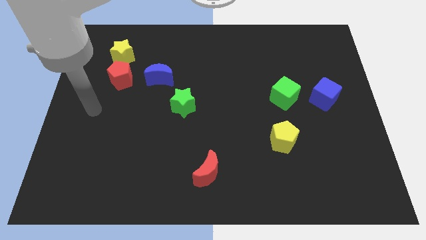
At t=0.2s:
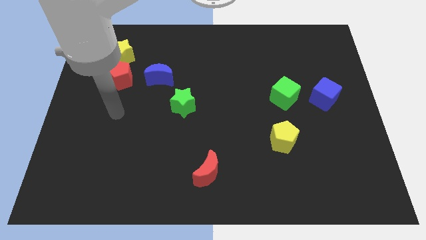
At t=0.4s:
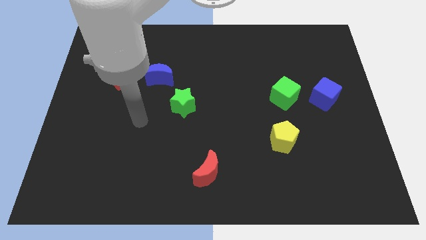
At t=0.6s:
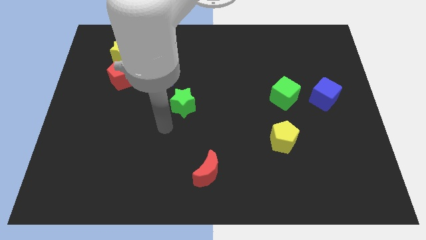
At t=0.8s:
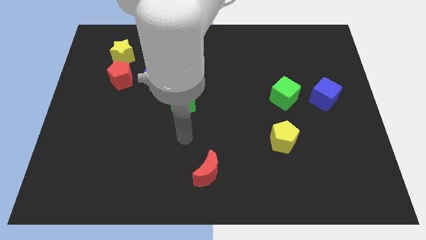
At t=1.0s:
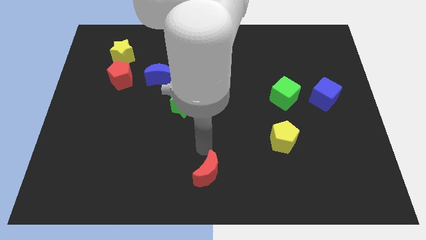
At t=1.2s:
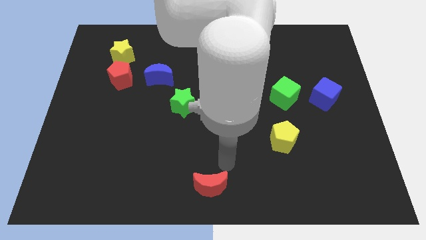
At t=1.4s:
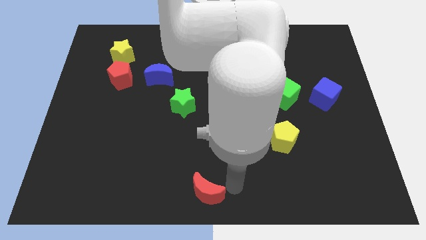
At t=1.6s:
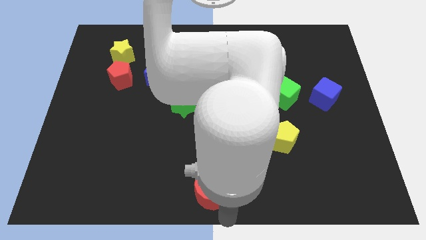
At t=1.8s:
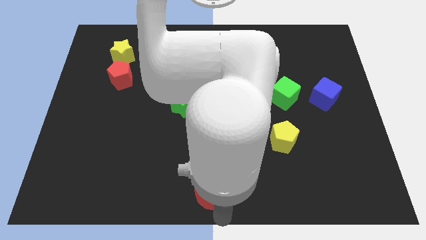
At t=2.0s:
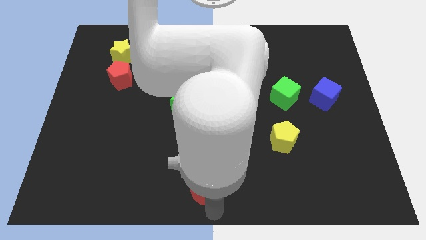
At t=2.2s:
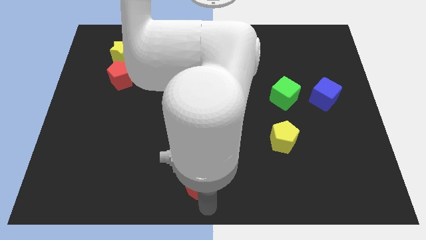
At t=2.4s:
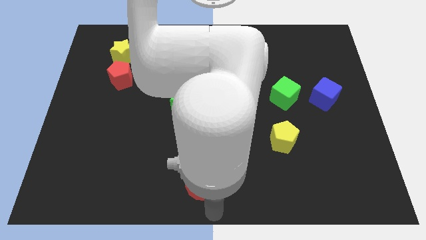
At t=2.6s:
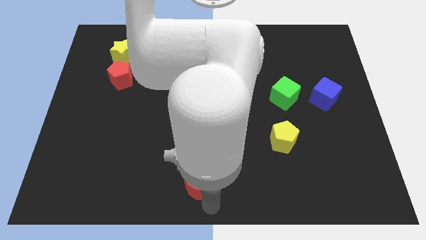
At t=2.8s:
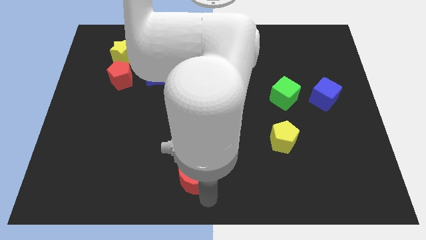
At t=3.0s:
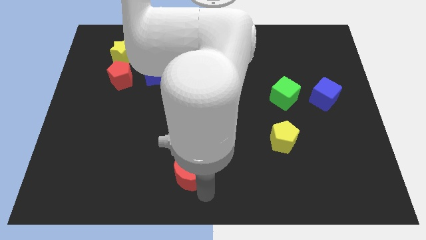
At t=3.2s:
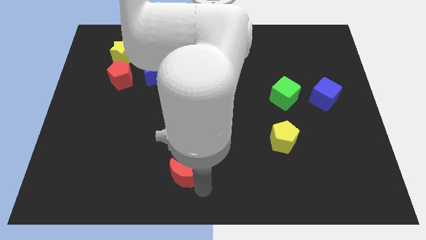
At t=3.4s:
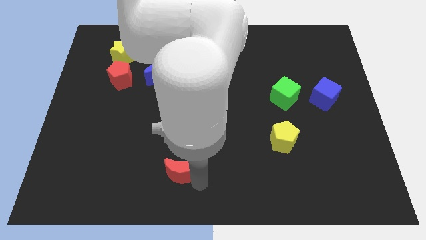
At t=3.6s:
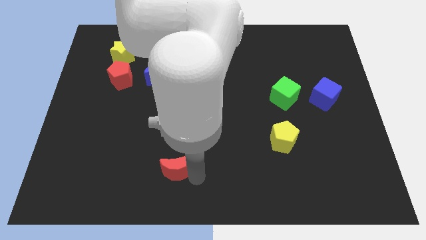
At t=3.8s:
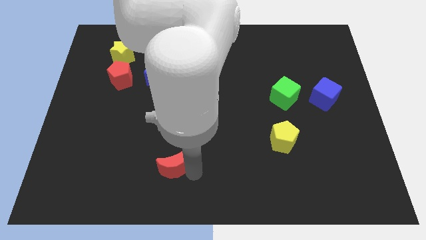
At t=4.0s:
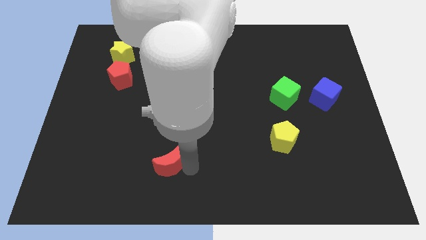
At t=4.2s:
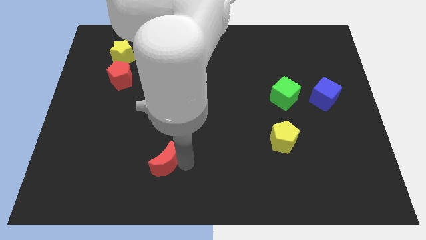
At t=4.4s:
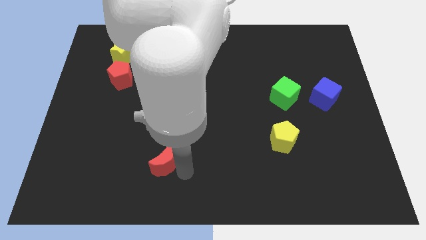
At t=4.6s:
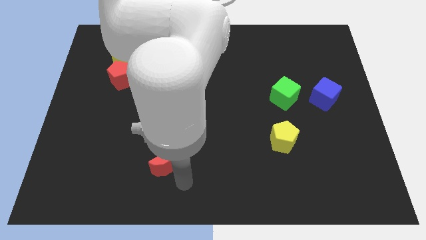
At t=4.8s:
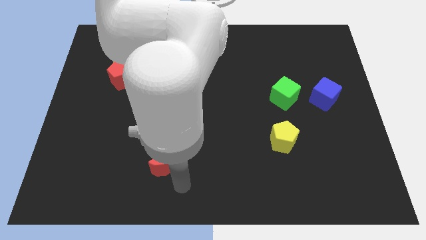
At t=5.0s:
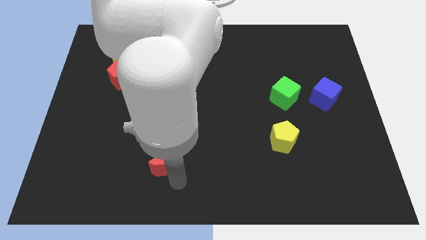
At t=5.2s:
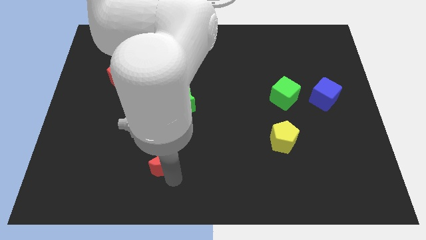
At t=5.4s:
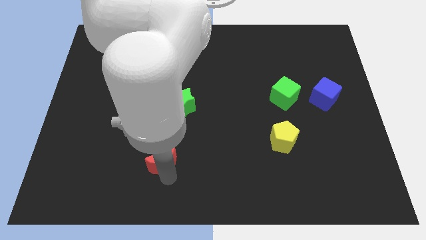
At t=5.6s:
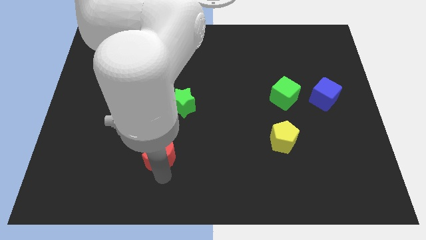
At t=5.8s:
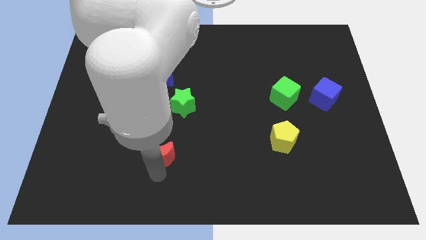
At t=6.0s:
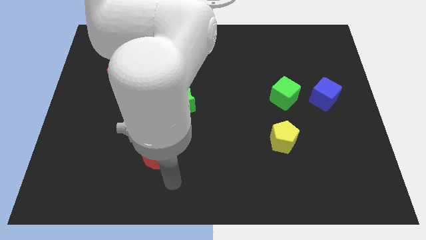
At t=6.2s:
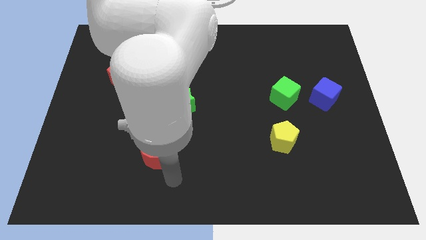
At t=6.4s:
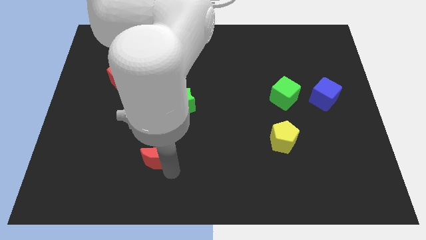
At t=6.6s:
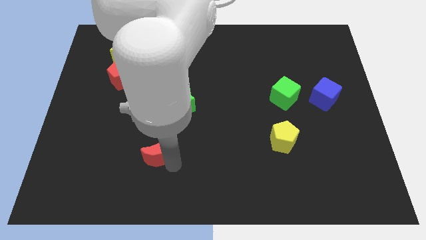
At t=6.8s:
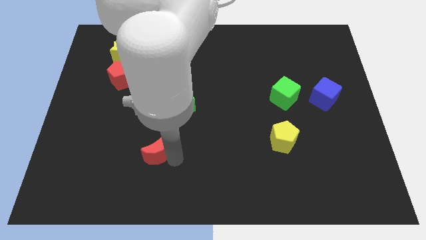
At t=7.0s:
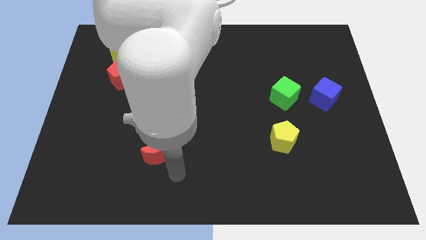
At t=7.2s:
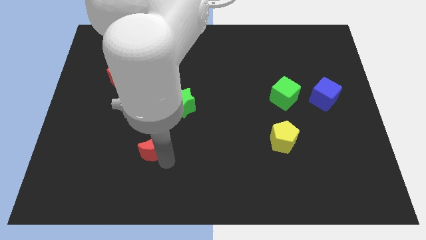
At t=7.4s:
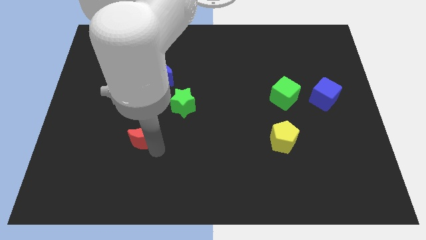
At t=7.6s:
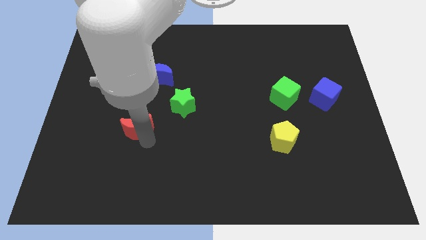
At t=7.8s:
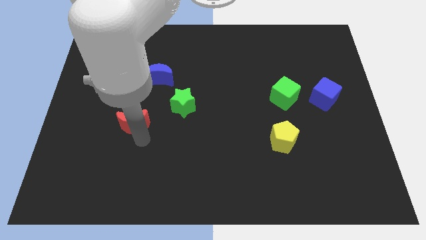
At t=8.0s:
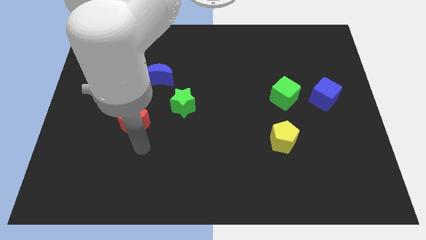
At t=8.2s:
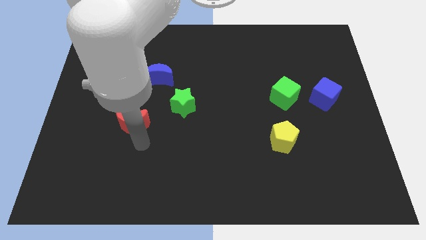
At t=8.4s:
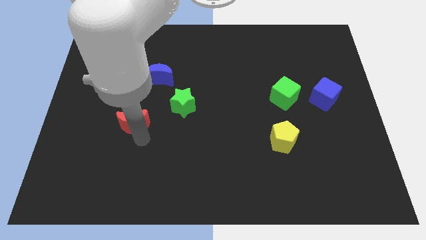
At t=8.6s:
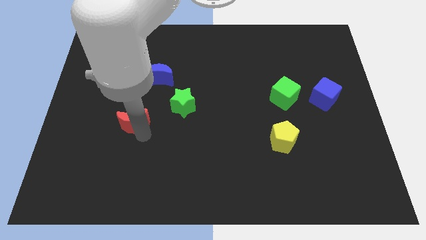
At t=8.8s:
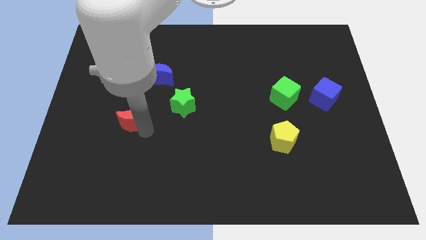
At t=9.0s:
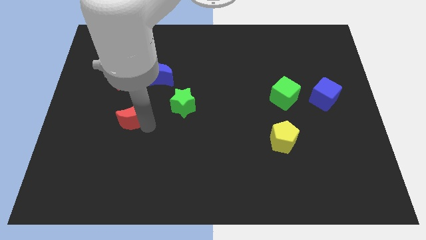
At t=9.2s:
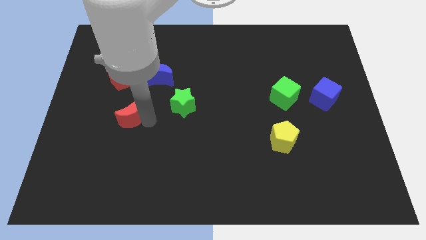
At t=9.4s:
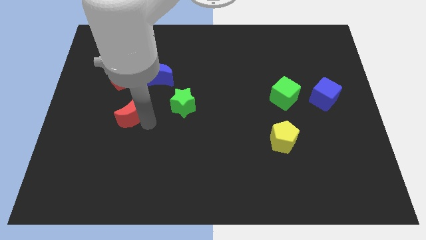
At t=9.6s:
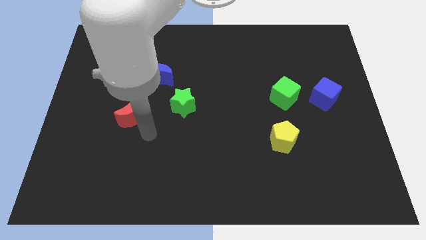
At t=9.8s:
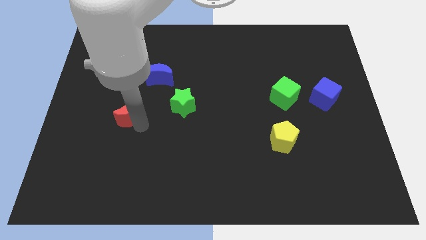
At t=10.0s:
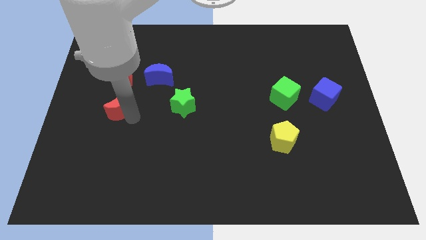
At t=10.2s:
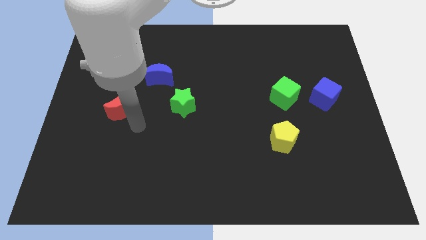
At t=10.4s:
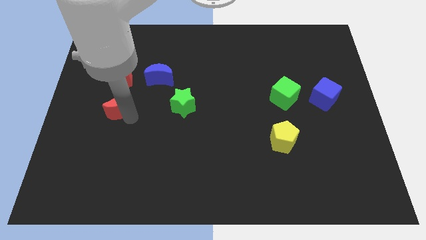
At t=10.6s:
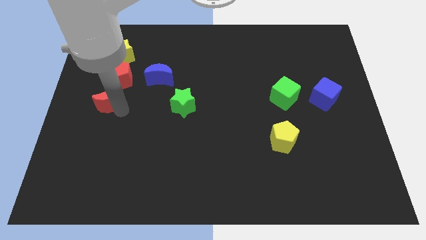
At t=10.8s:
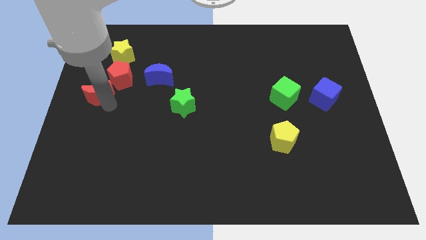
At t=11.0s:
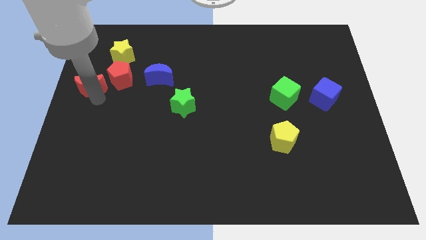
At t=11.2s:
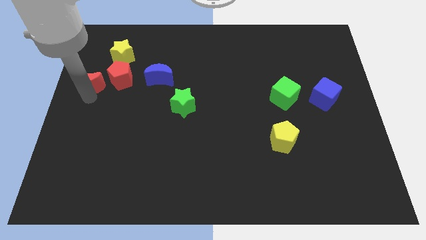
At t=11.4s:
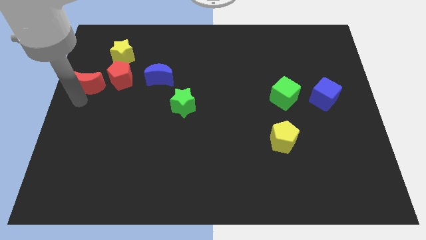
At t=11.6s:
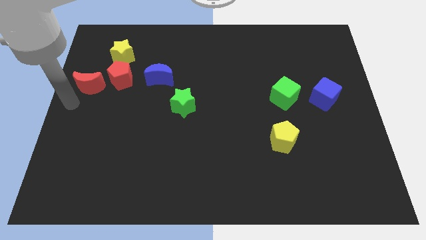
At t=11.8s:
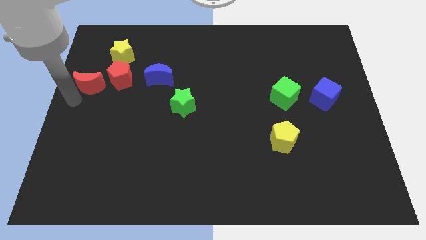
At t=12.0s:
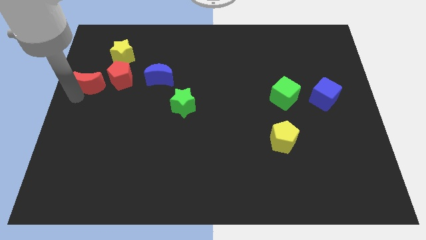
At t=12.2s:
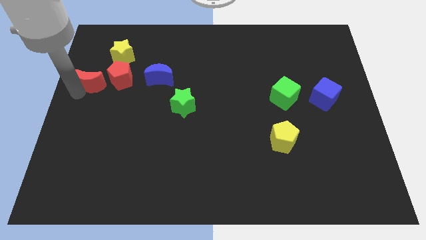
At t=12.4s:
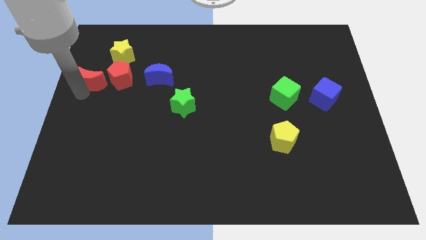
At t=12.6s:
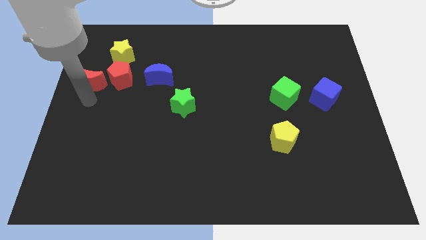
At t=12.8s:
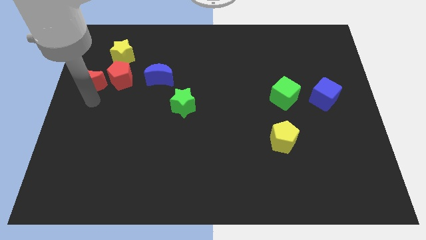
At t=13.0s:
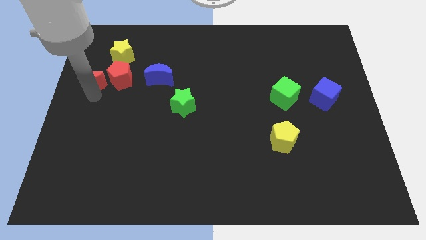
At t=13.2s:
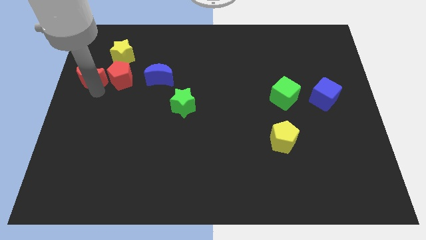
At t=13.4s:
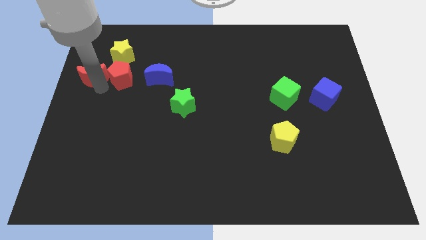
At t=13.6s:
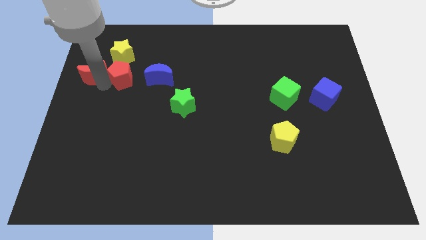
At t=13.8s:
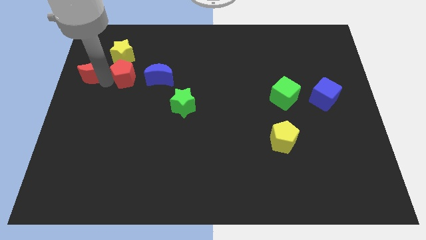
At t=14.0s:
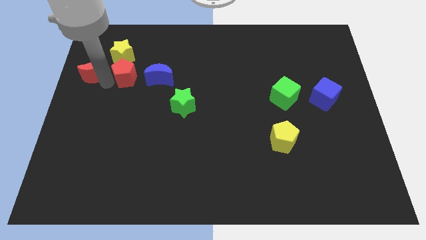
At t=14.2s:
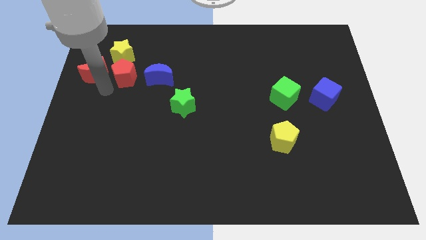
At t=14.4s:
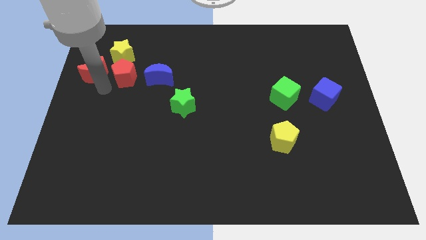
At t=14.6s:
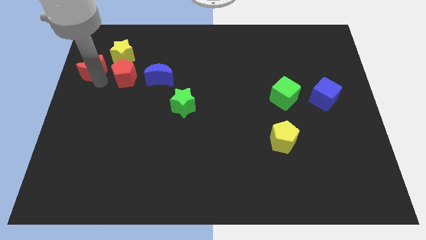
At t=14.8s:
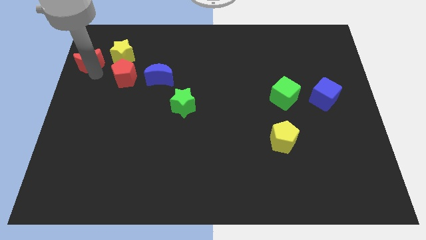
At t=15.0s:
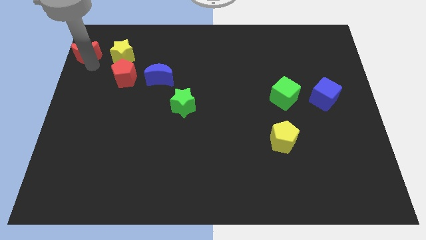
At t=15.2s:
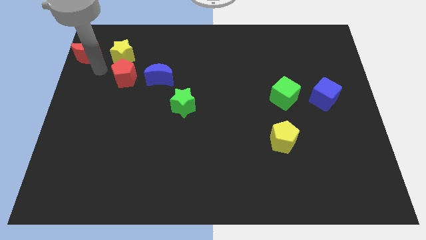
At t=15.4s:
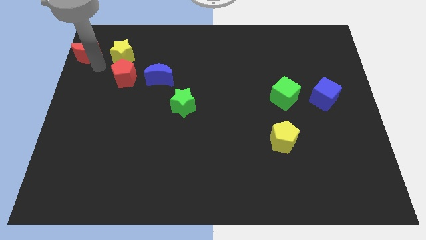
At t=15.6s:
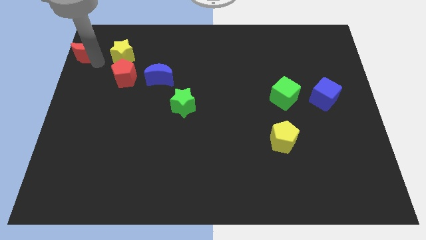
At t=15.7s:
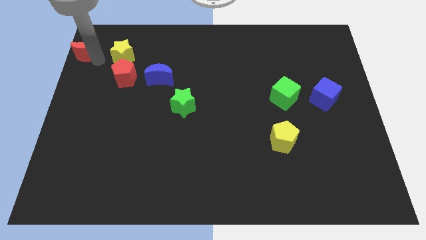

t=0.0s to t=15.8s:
slide the red moon to the top left of the board
